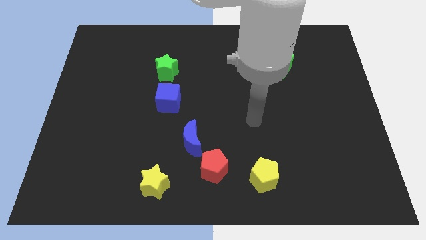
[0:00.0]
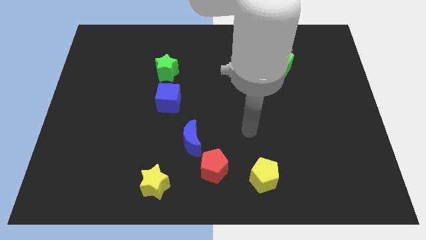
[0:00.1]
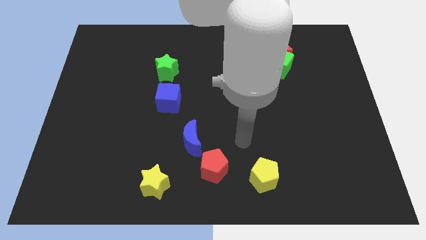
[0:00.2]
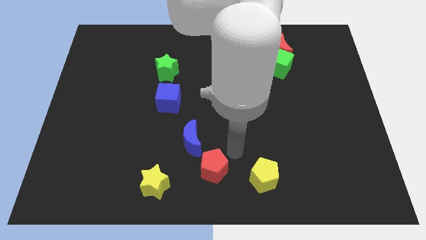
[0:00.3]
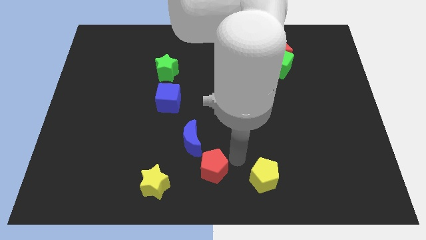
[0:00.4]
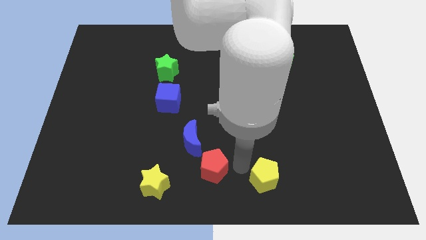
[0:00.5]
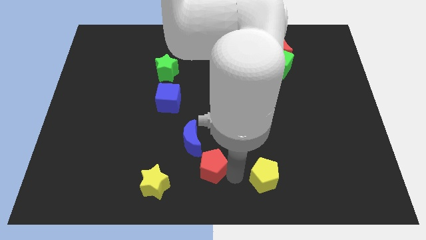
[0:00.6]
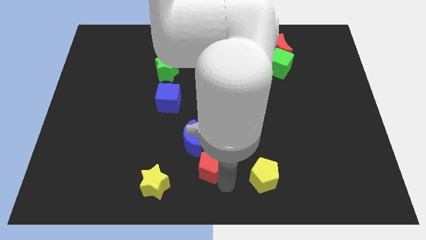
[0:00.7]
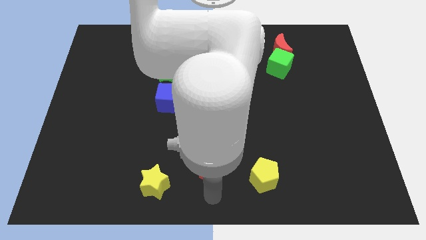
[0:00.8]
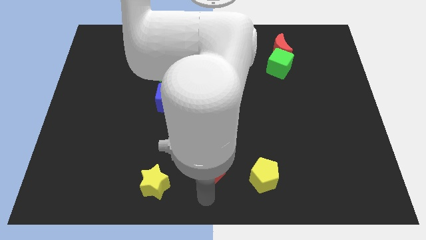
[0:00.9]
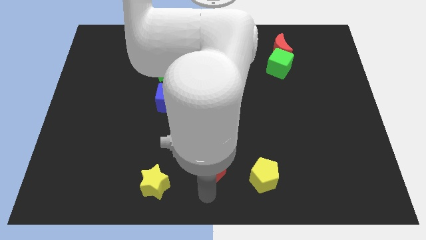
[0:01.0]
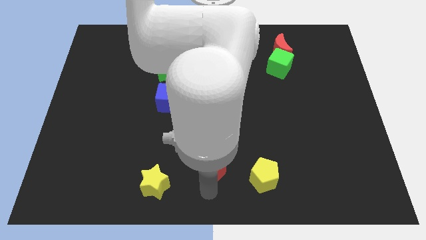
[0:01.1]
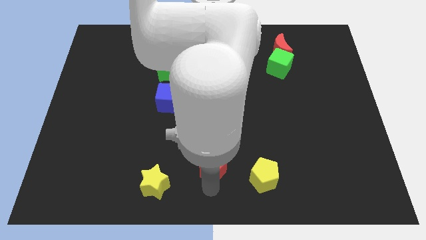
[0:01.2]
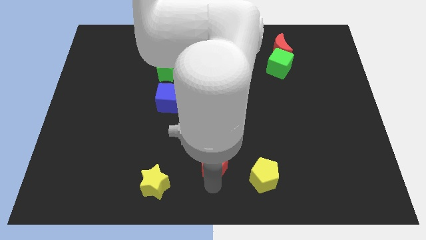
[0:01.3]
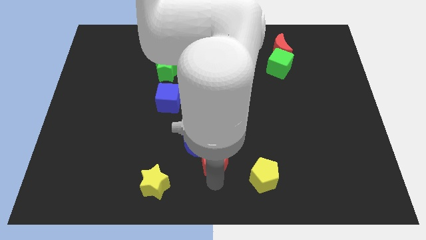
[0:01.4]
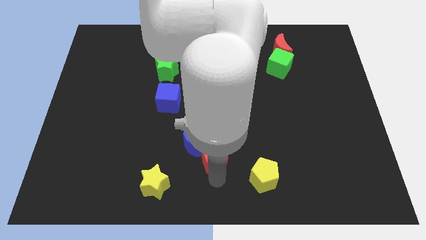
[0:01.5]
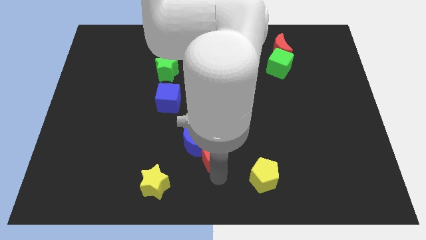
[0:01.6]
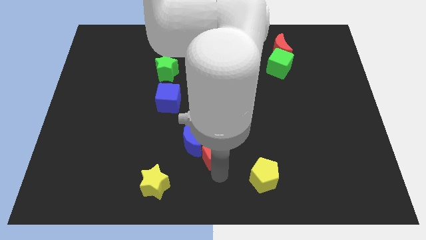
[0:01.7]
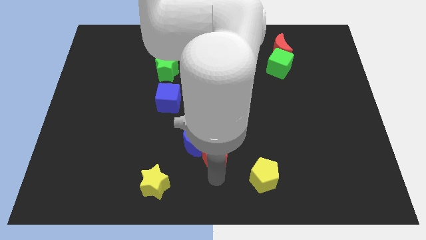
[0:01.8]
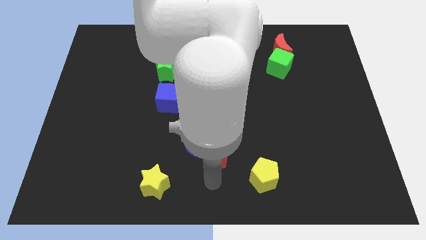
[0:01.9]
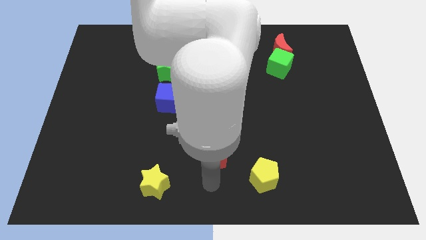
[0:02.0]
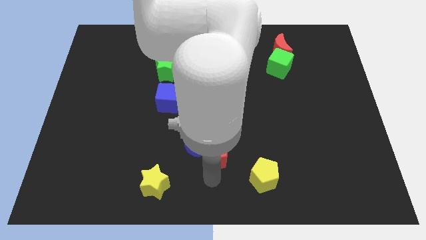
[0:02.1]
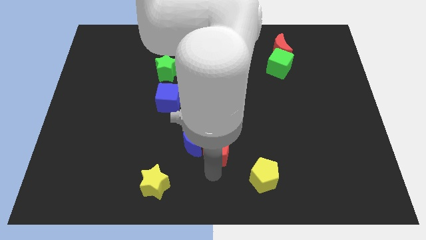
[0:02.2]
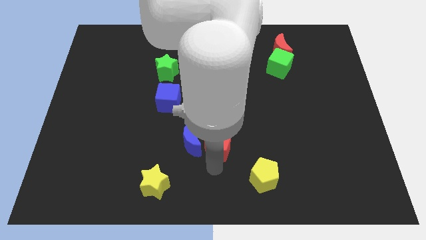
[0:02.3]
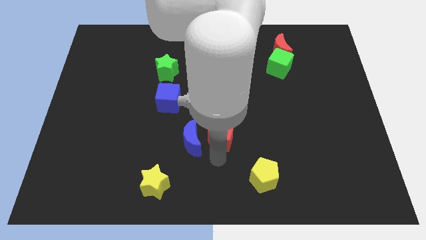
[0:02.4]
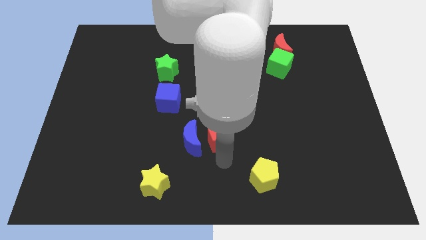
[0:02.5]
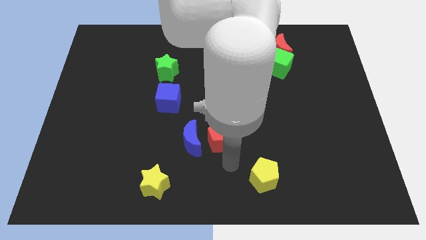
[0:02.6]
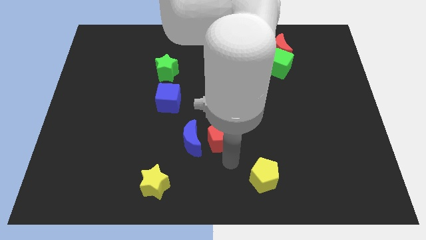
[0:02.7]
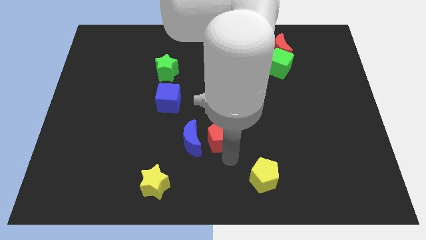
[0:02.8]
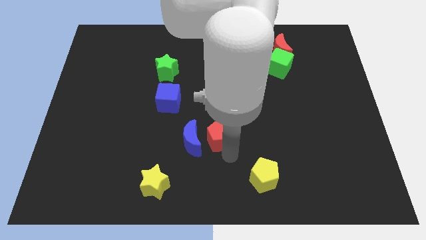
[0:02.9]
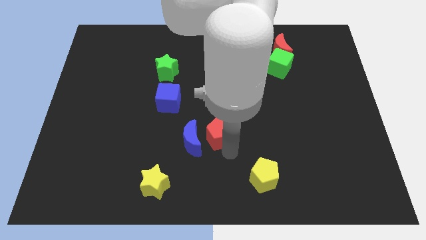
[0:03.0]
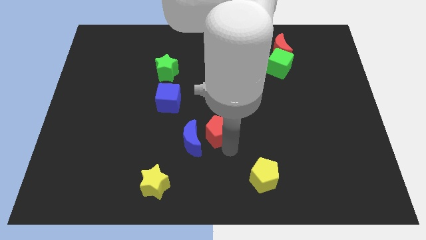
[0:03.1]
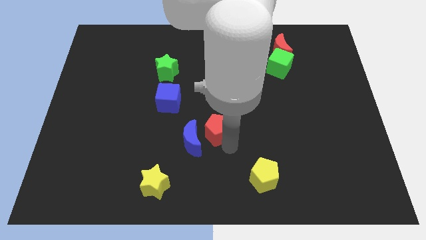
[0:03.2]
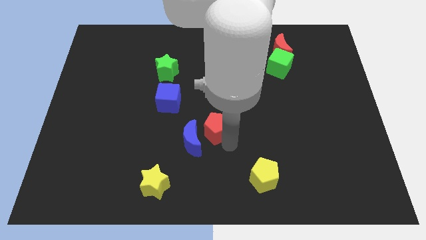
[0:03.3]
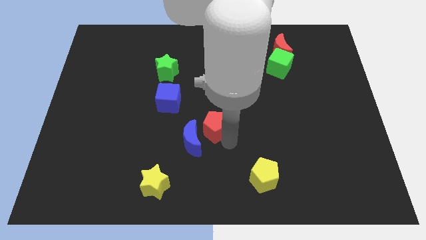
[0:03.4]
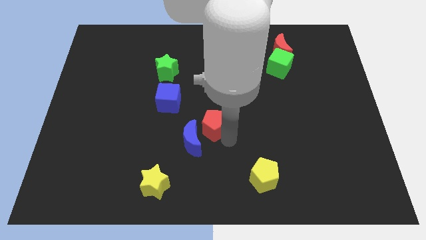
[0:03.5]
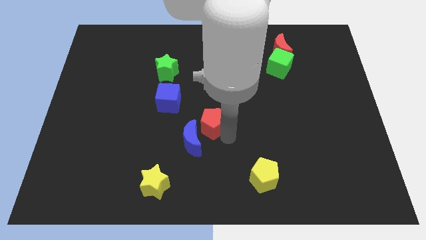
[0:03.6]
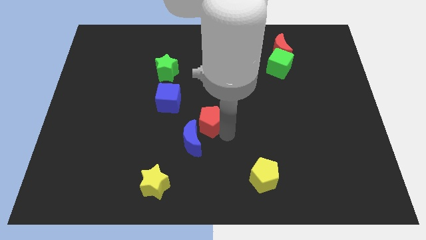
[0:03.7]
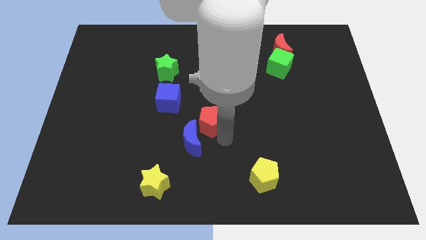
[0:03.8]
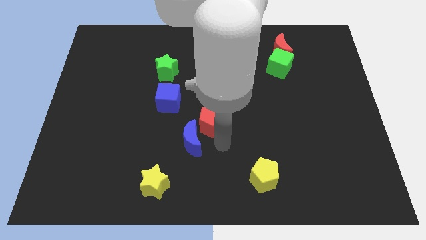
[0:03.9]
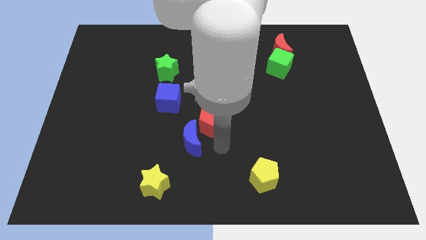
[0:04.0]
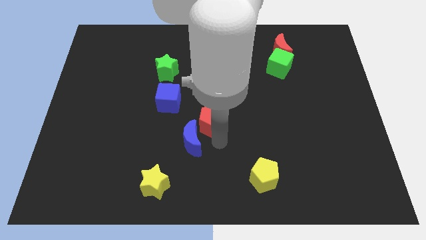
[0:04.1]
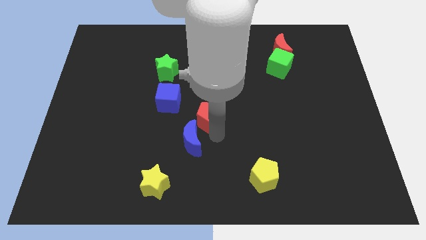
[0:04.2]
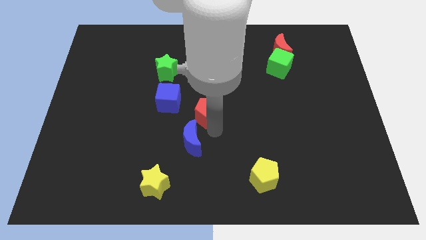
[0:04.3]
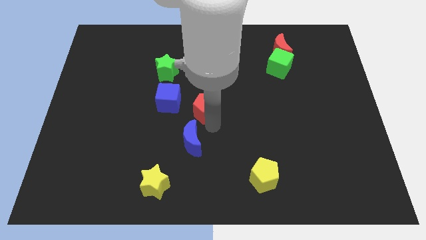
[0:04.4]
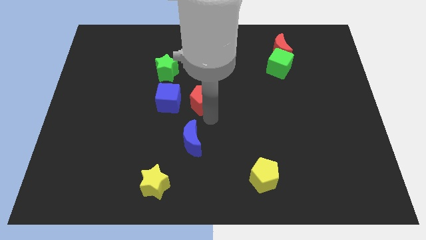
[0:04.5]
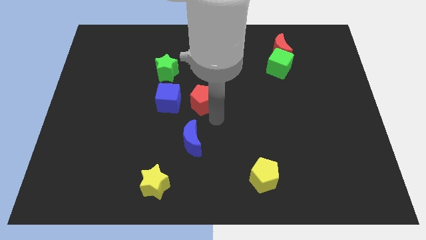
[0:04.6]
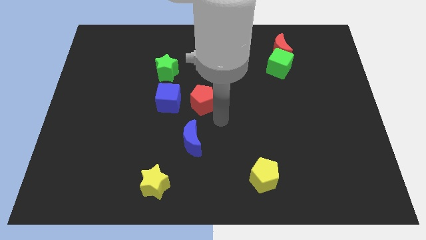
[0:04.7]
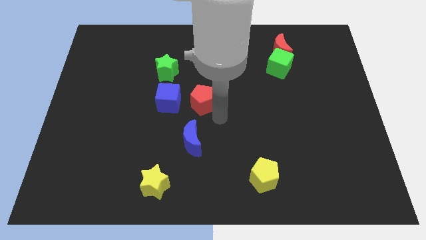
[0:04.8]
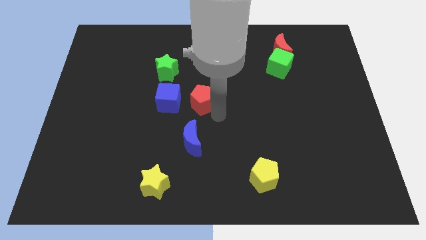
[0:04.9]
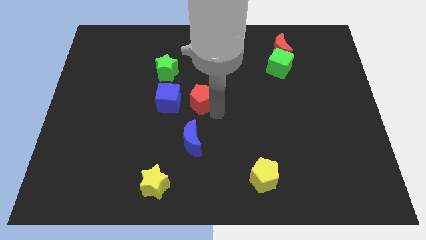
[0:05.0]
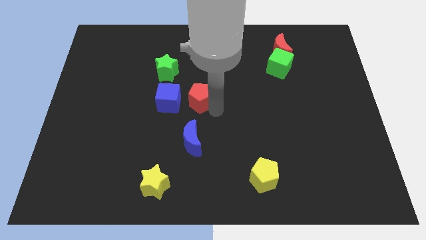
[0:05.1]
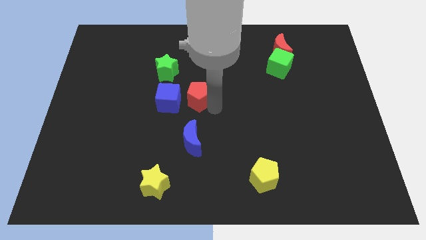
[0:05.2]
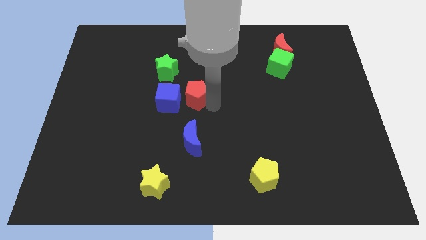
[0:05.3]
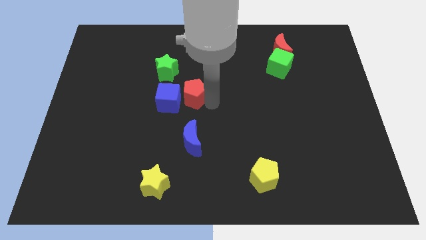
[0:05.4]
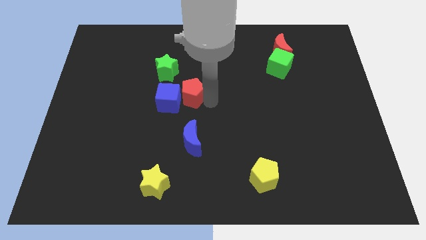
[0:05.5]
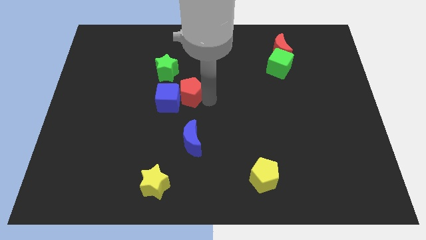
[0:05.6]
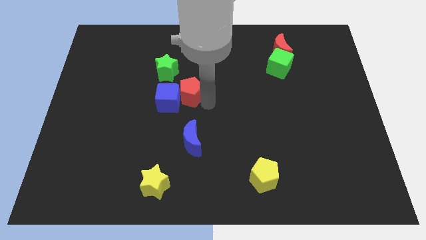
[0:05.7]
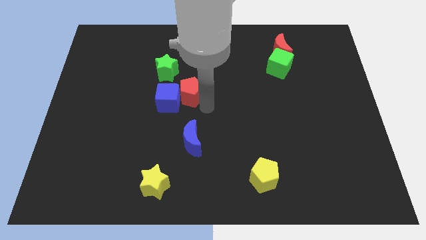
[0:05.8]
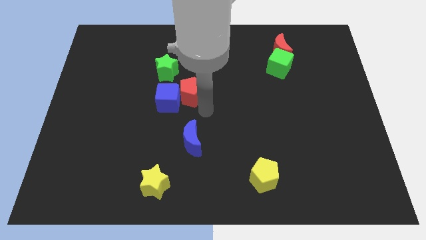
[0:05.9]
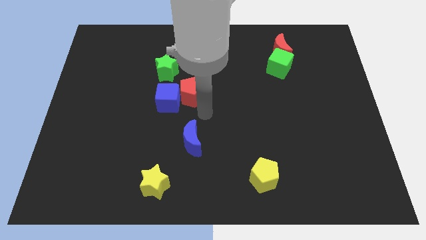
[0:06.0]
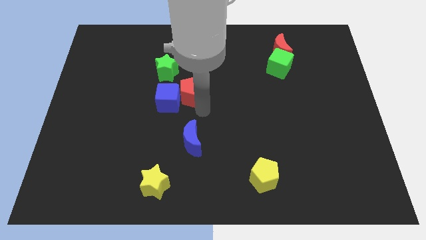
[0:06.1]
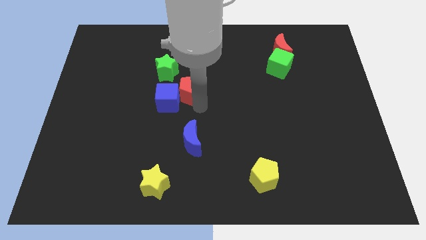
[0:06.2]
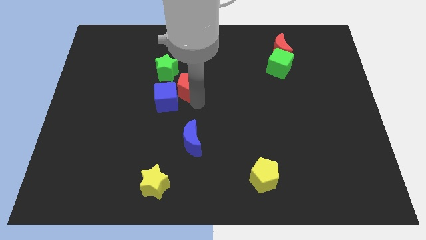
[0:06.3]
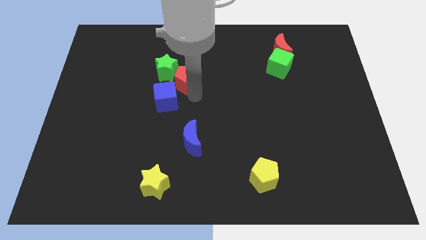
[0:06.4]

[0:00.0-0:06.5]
slide the red pentagon close to the green star
